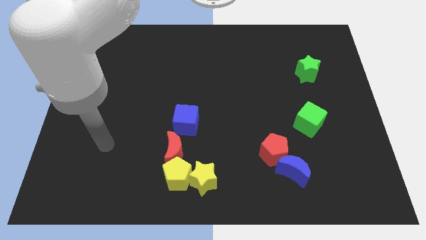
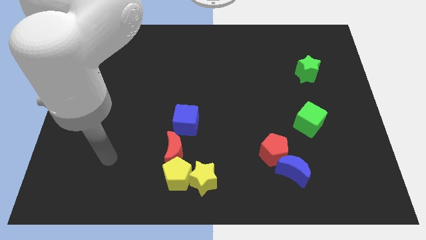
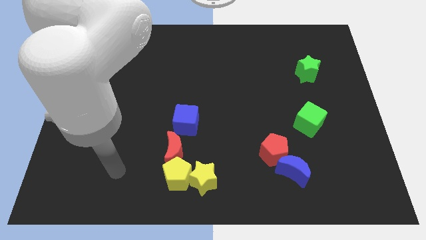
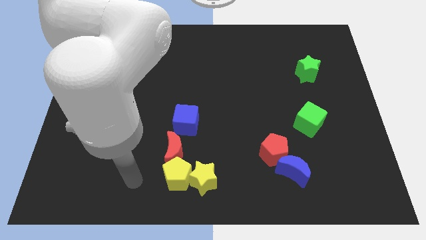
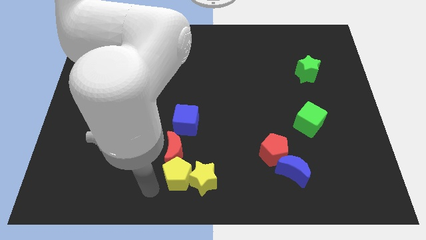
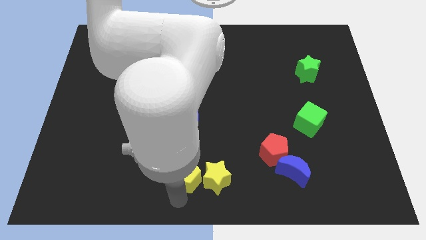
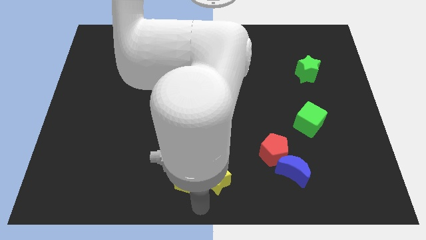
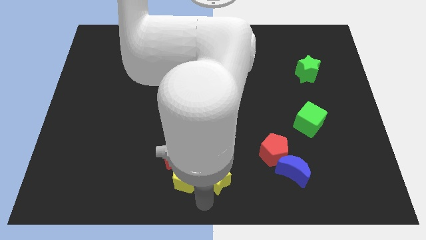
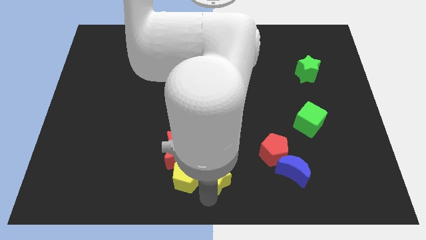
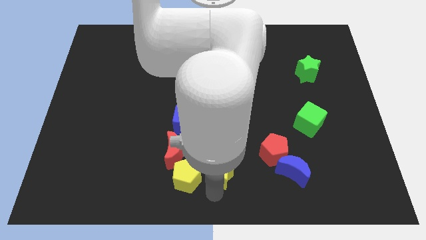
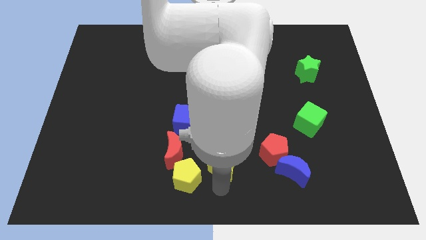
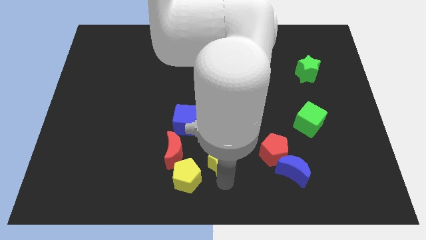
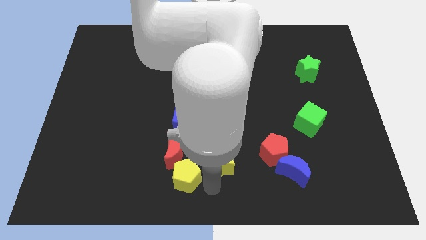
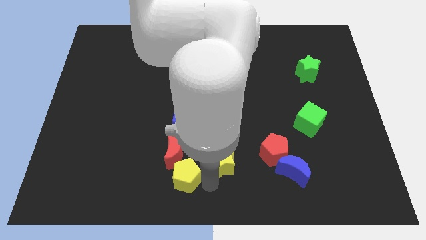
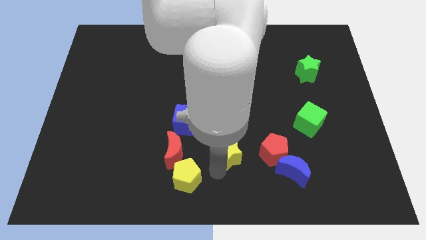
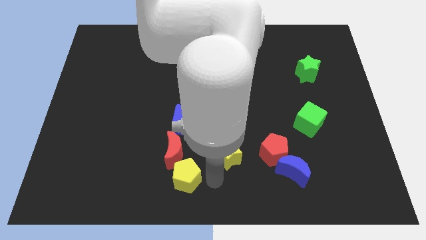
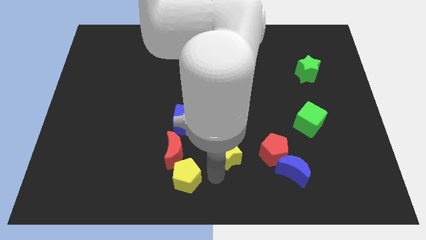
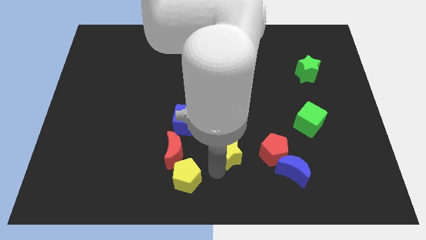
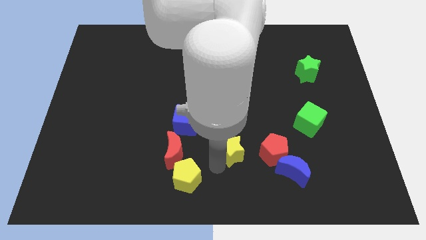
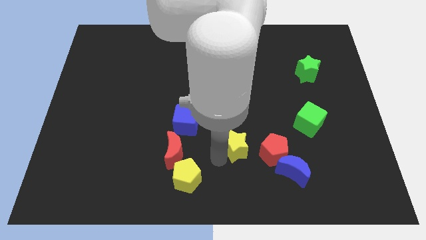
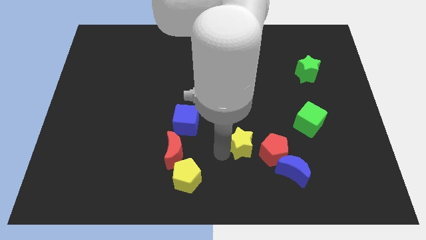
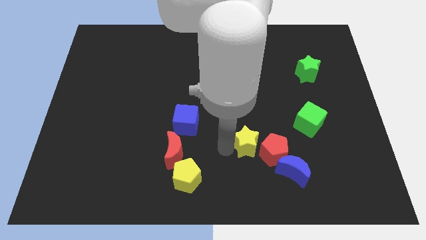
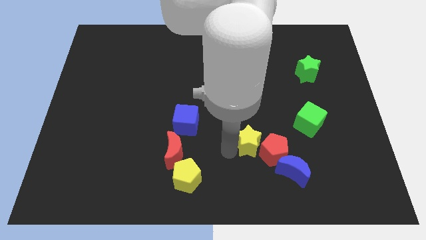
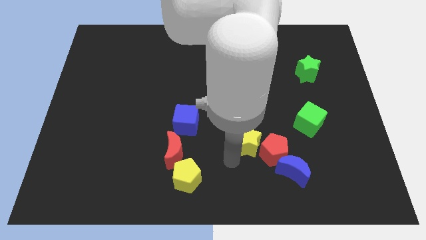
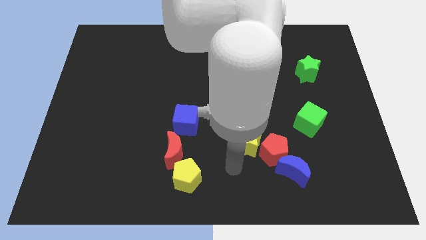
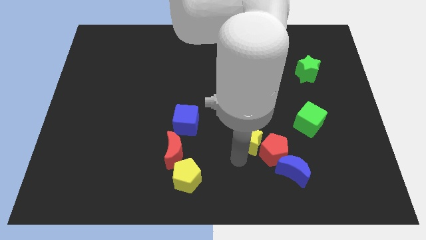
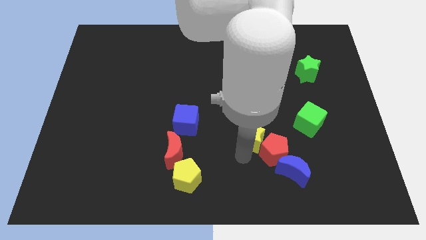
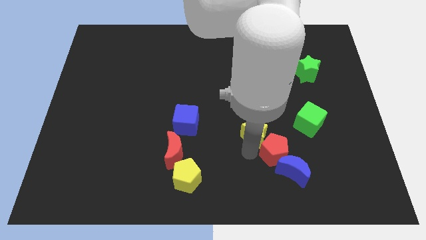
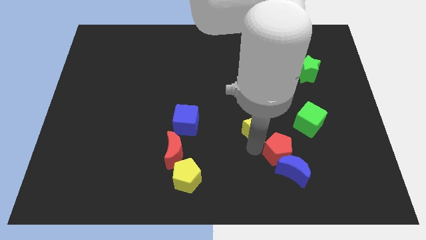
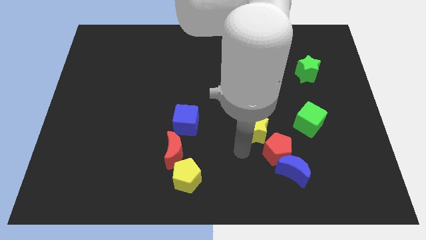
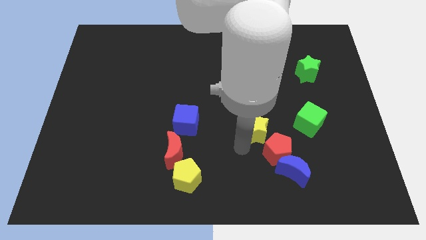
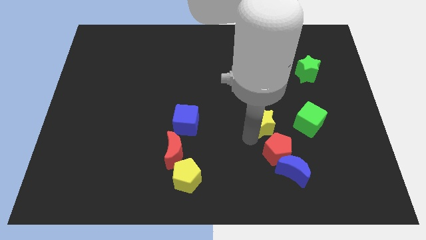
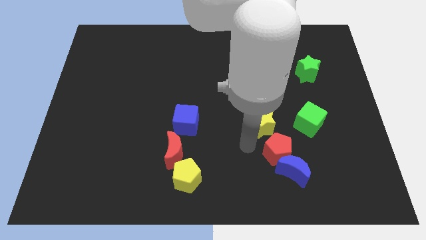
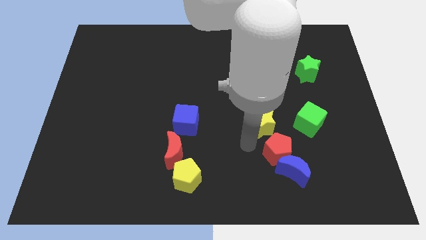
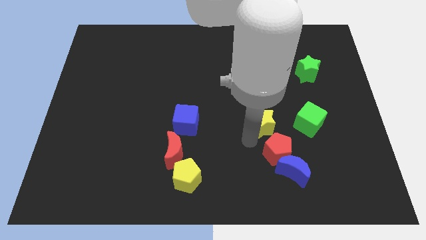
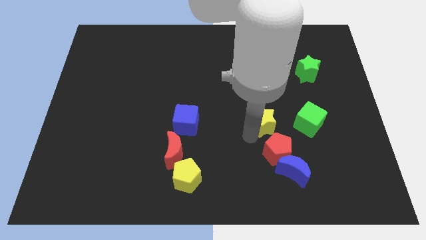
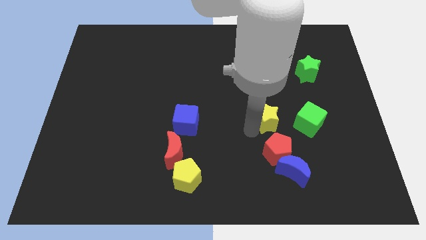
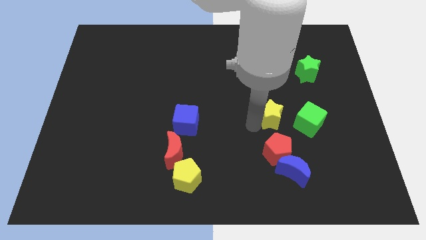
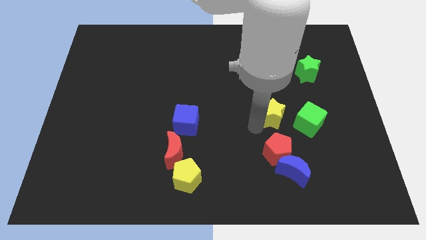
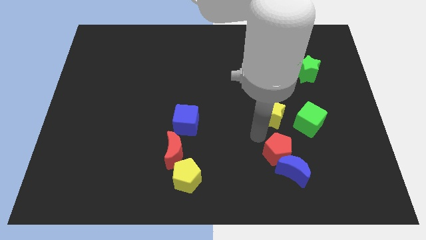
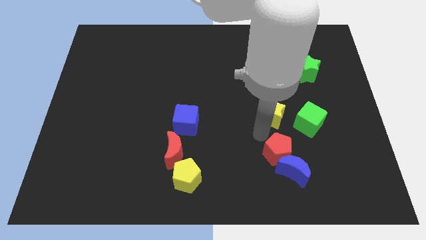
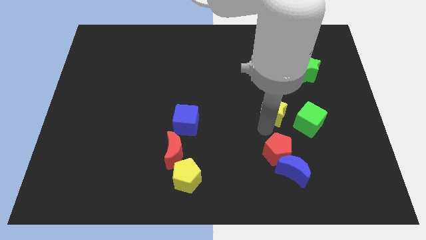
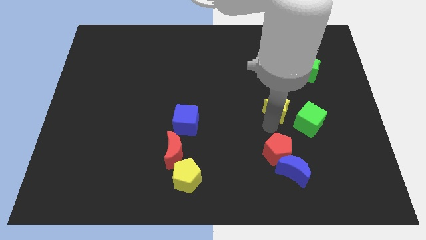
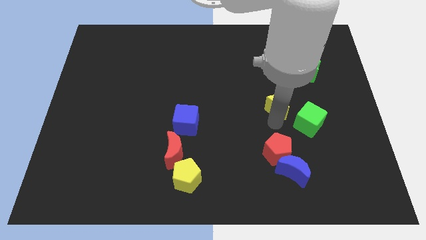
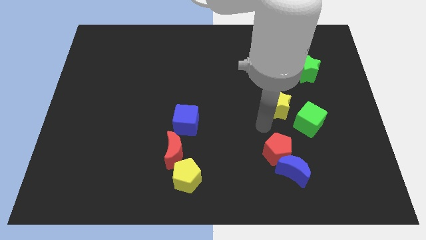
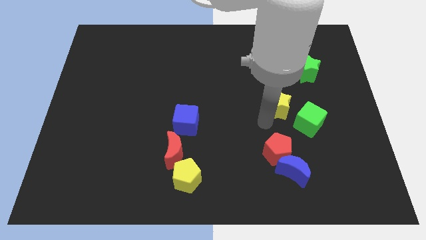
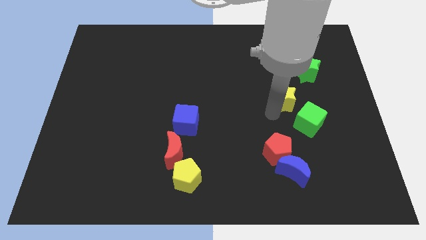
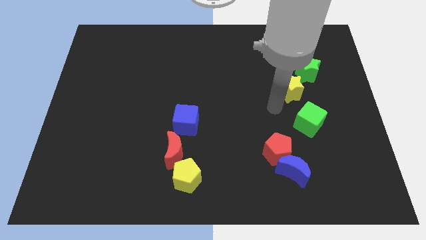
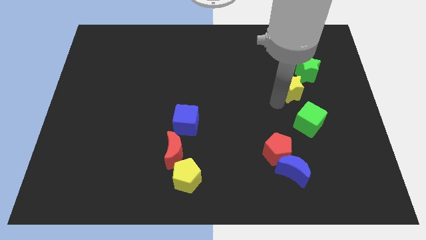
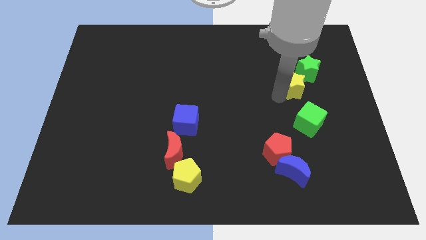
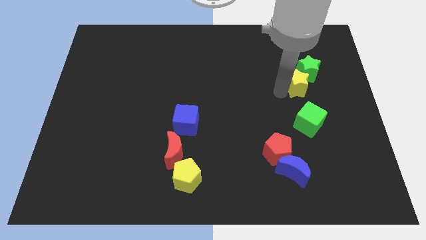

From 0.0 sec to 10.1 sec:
put the yellow star next to the green star

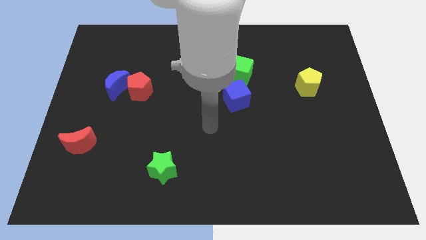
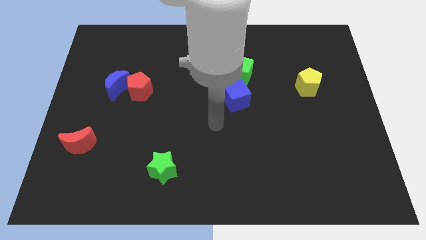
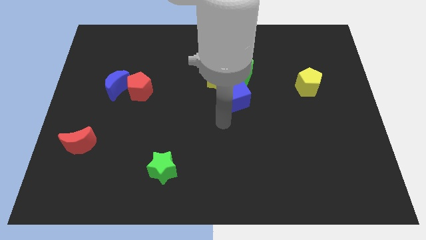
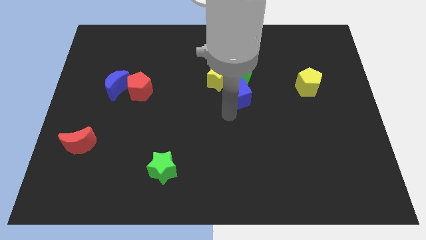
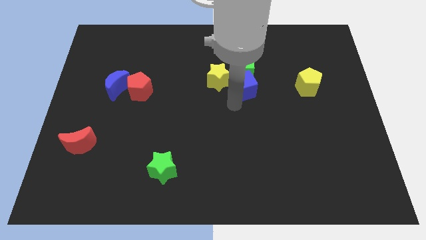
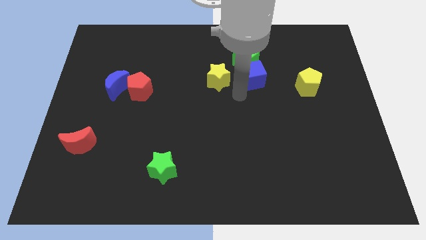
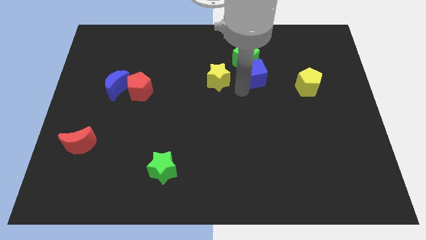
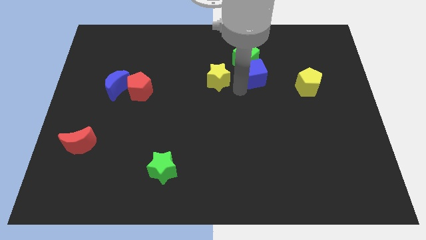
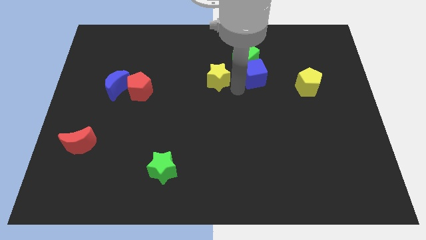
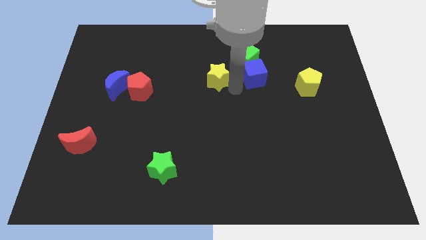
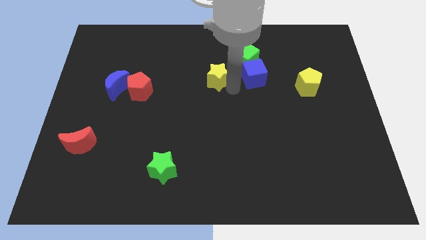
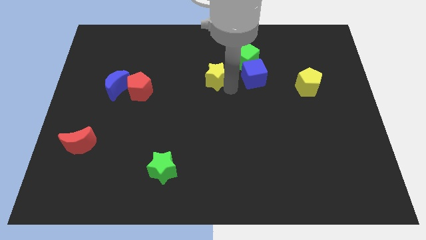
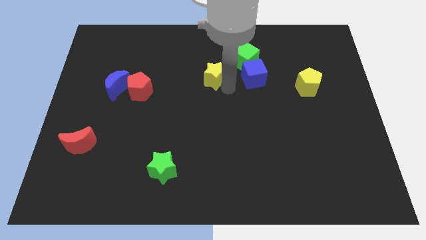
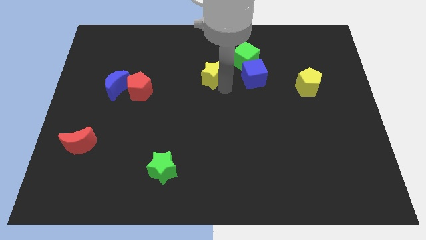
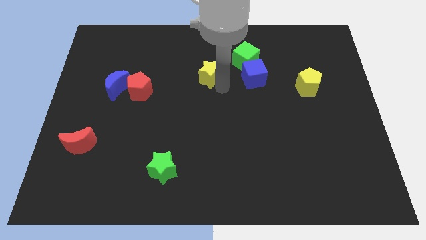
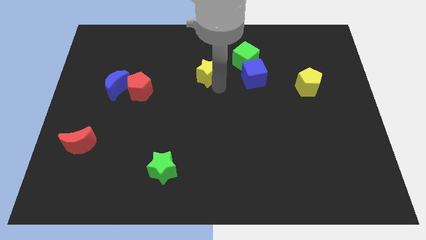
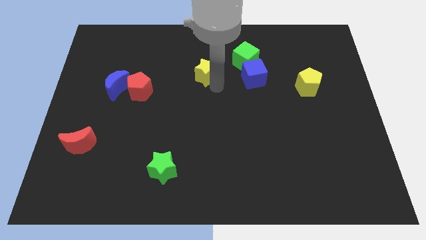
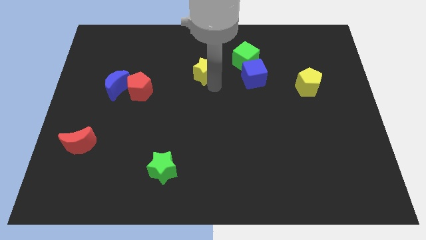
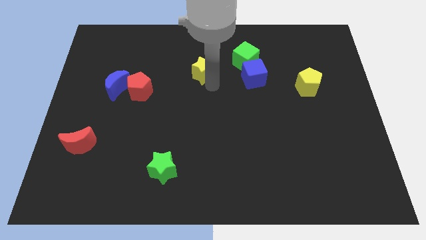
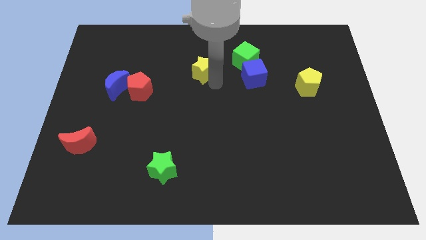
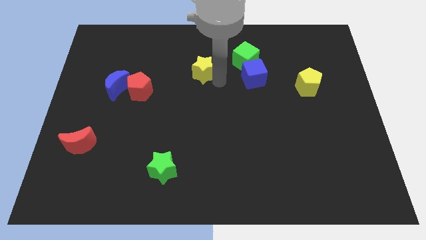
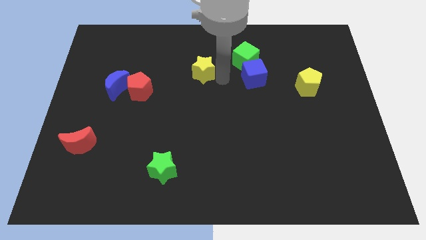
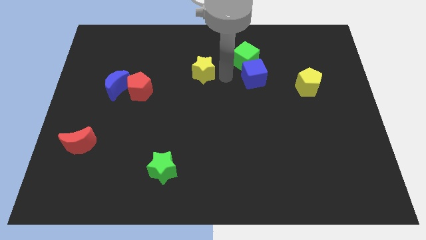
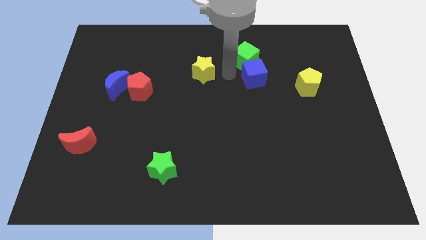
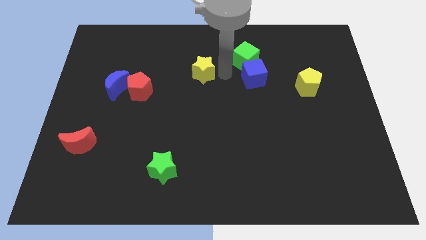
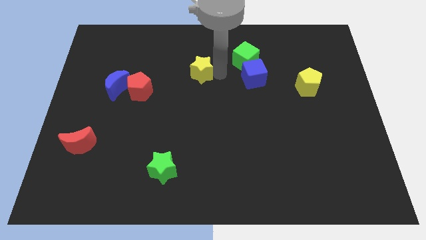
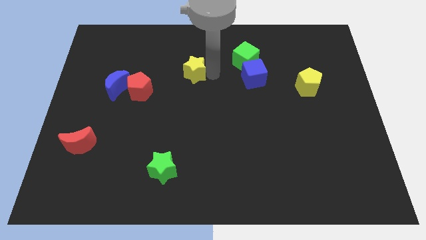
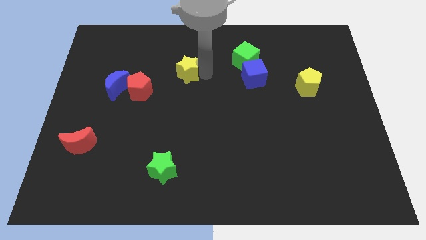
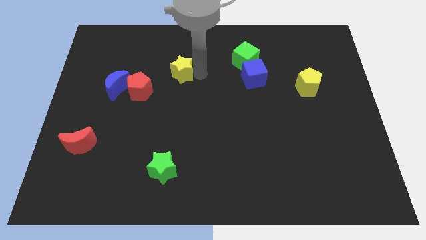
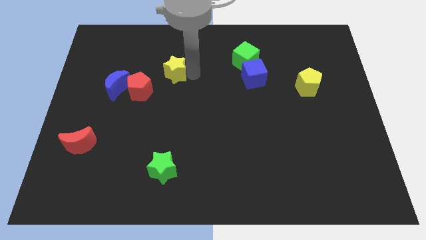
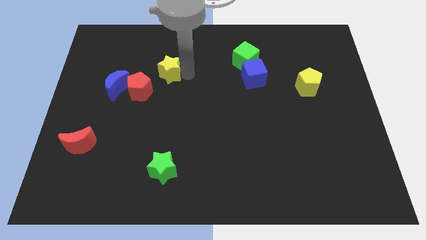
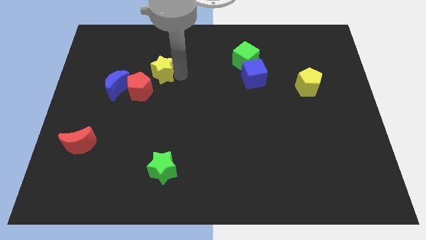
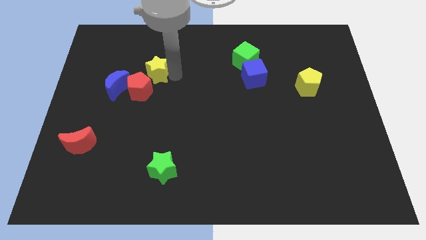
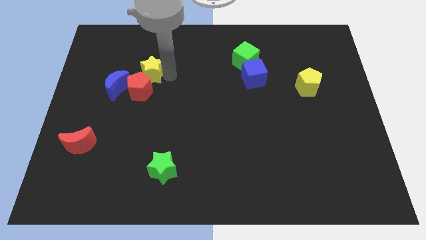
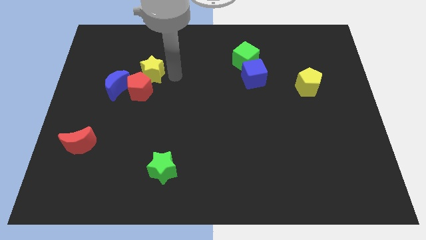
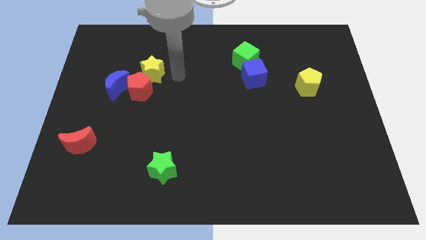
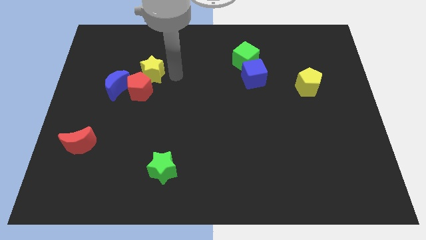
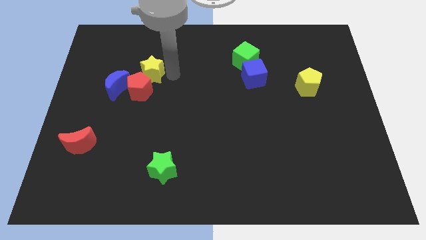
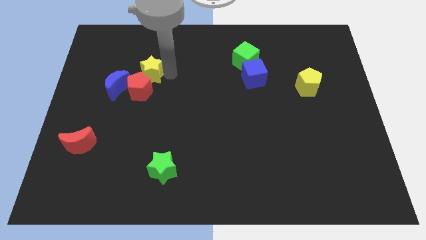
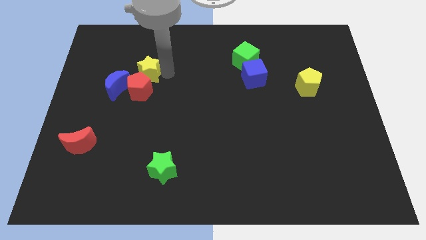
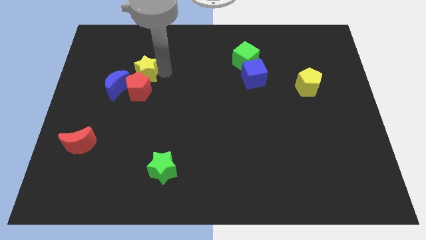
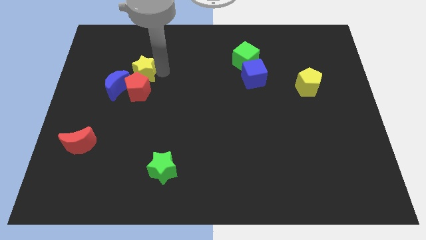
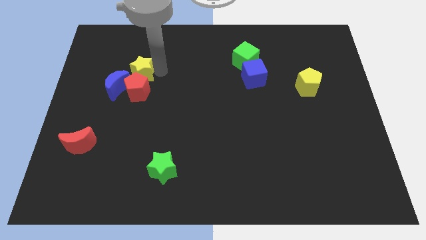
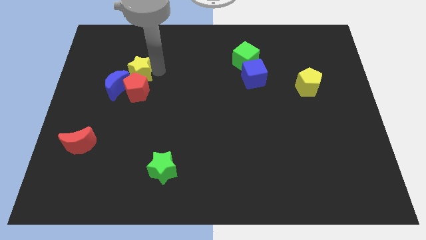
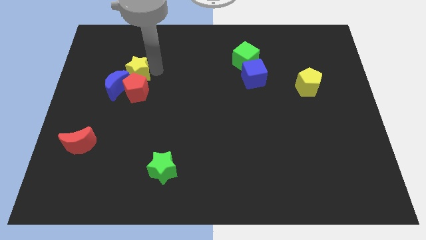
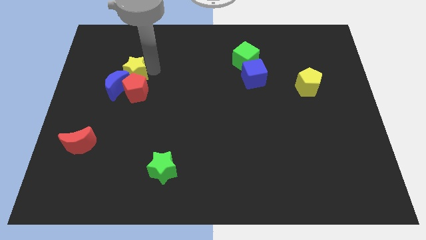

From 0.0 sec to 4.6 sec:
move the yellow star next to the blue moon
